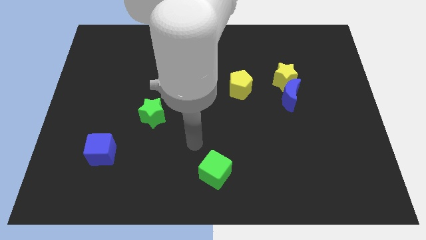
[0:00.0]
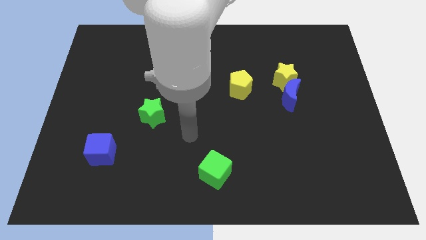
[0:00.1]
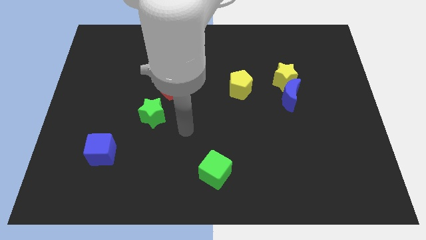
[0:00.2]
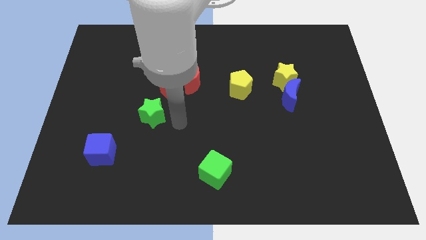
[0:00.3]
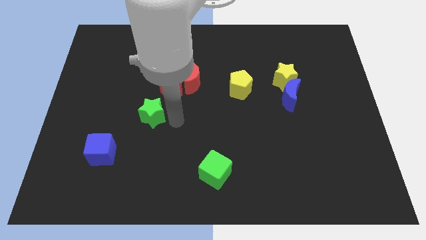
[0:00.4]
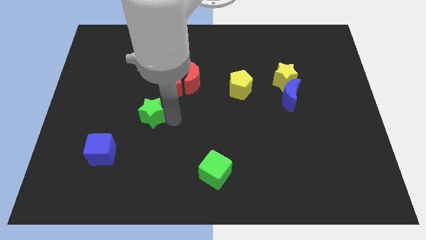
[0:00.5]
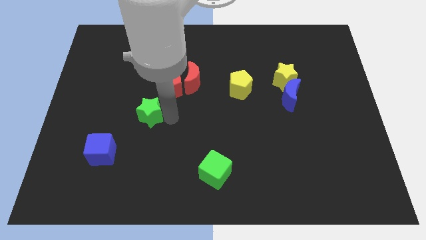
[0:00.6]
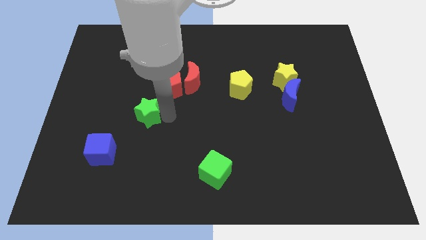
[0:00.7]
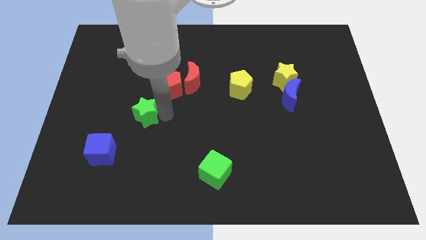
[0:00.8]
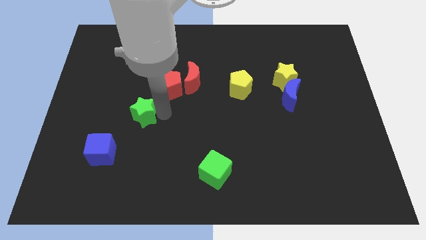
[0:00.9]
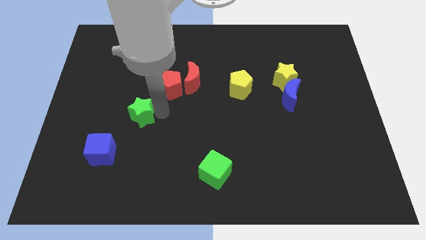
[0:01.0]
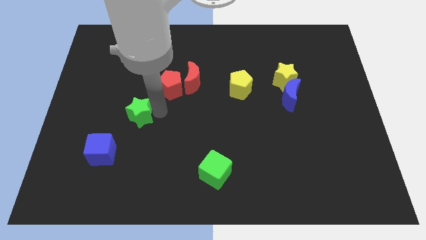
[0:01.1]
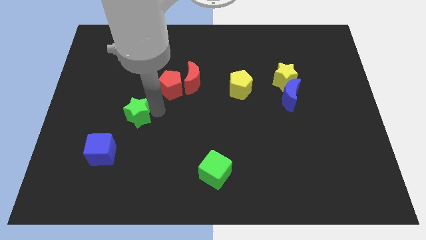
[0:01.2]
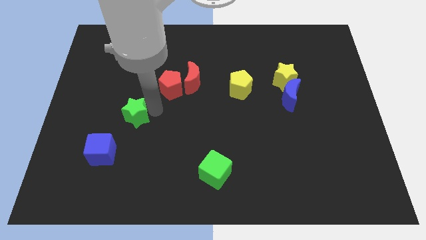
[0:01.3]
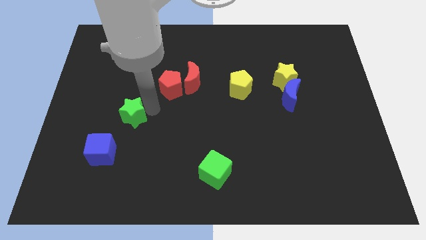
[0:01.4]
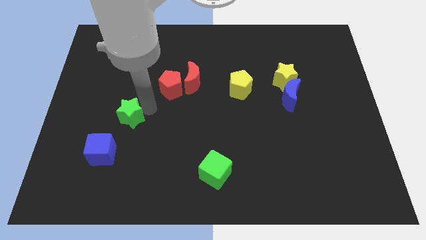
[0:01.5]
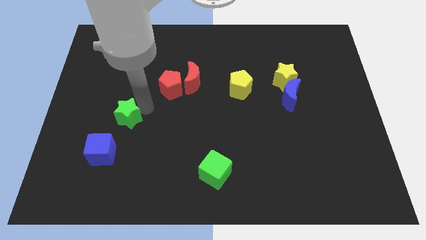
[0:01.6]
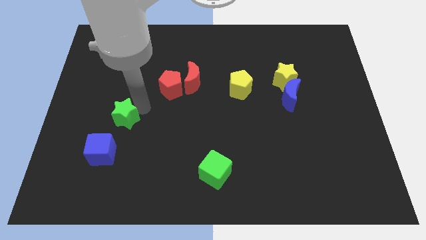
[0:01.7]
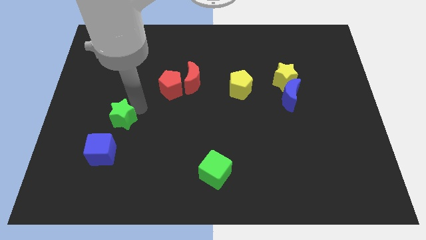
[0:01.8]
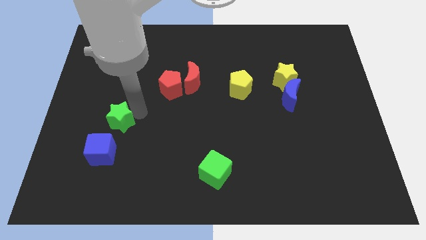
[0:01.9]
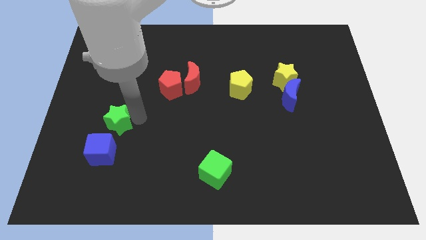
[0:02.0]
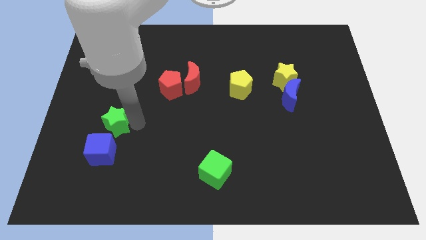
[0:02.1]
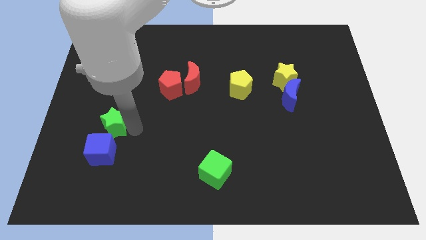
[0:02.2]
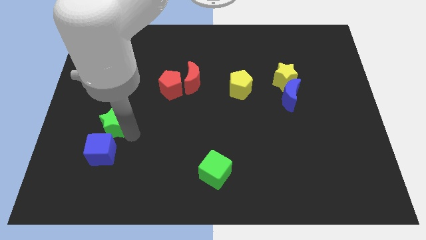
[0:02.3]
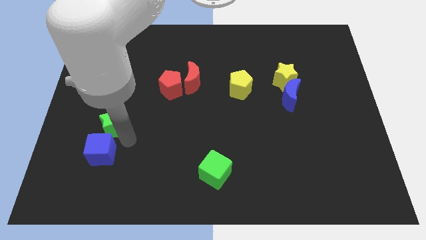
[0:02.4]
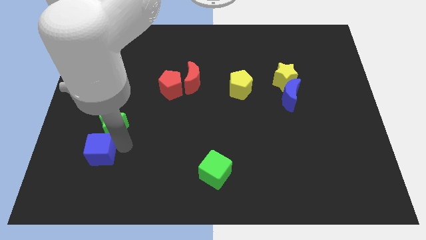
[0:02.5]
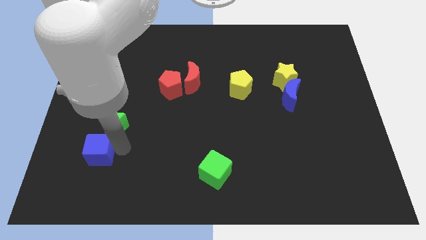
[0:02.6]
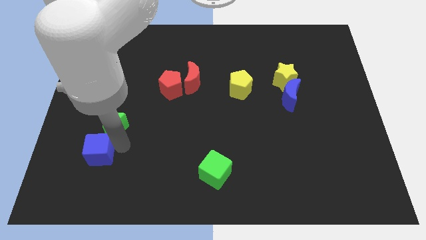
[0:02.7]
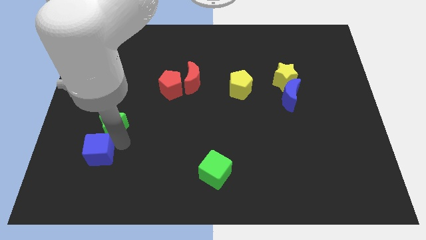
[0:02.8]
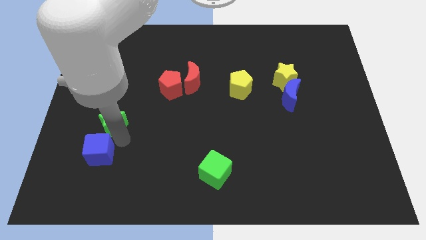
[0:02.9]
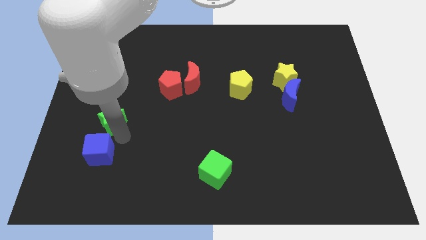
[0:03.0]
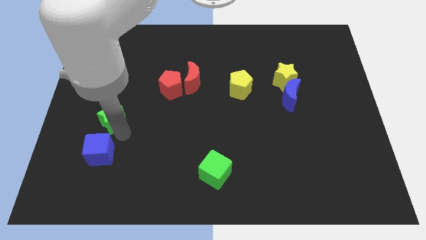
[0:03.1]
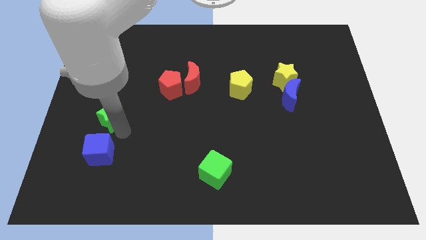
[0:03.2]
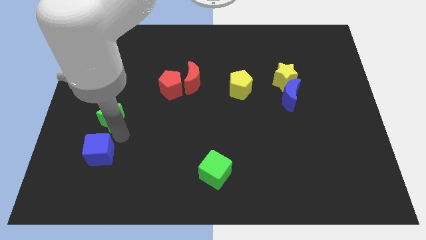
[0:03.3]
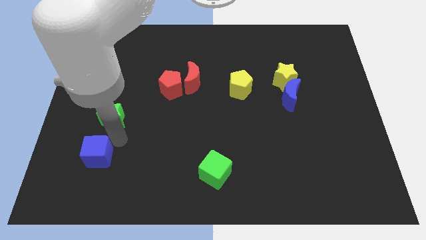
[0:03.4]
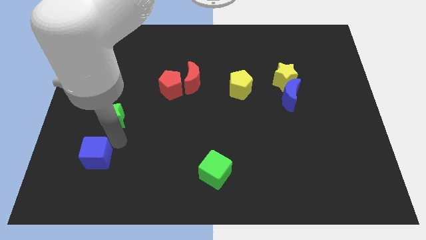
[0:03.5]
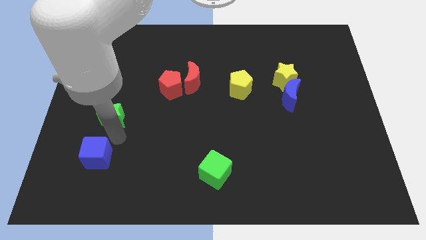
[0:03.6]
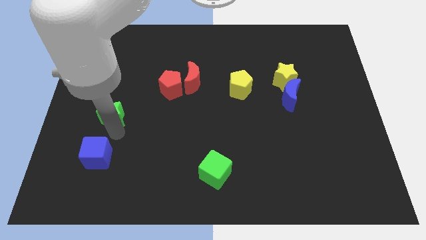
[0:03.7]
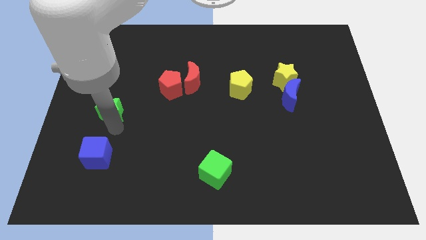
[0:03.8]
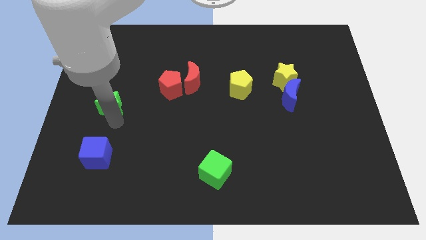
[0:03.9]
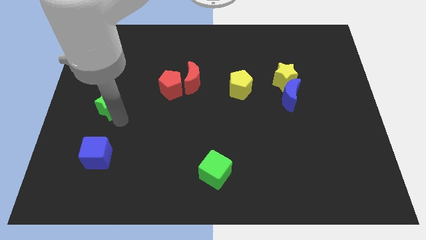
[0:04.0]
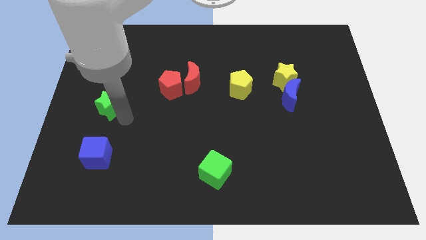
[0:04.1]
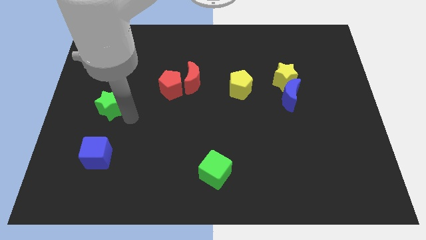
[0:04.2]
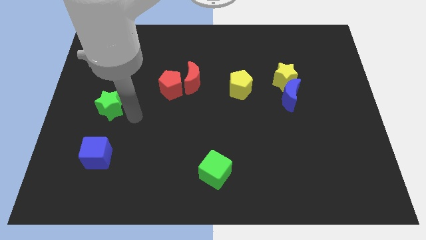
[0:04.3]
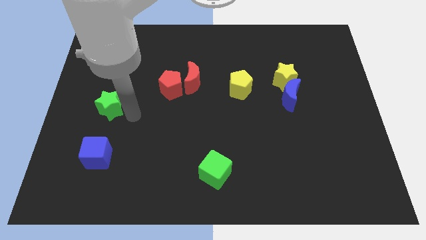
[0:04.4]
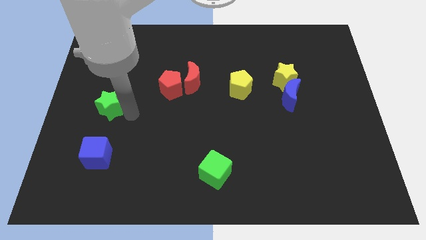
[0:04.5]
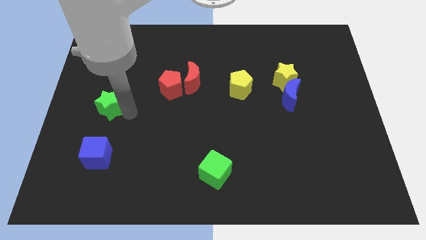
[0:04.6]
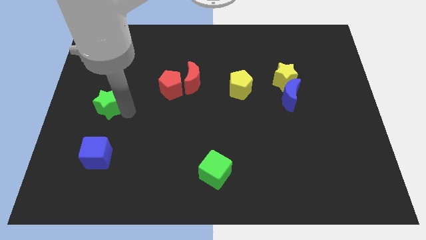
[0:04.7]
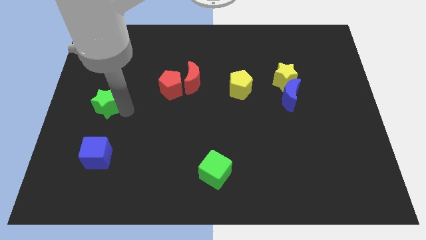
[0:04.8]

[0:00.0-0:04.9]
slide the green star to the left side

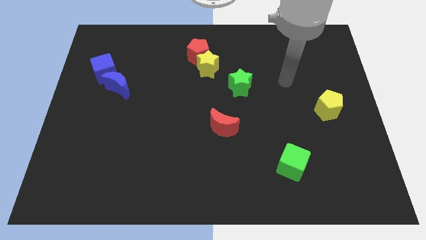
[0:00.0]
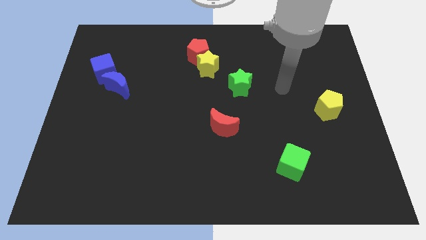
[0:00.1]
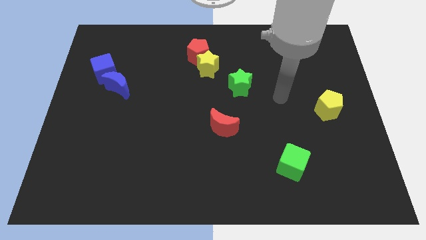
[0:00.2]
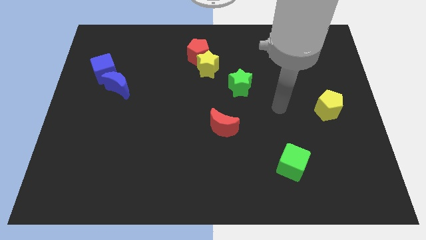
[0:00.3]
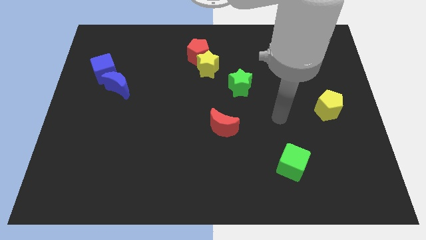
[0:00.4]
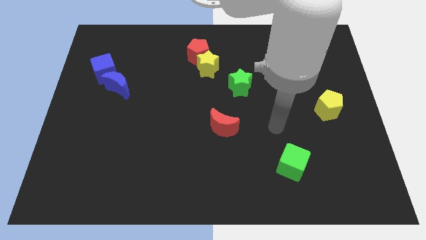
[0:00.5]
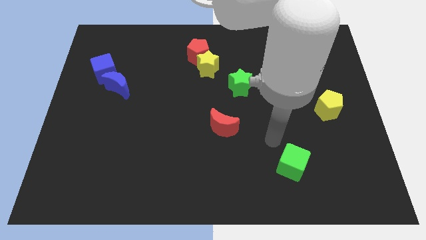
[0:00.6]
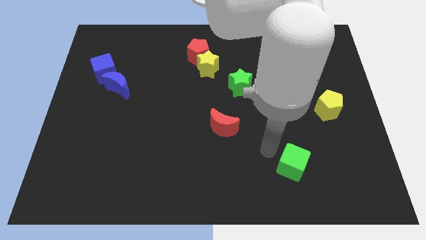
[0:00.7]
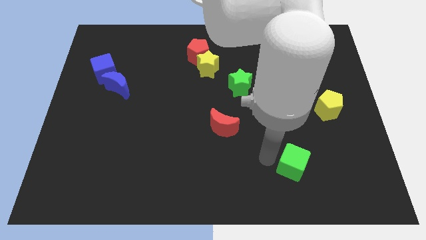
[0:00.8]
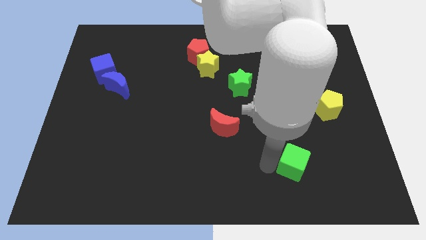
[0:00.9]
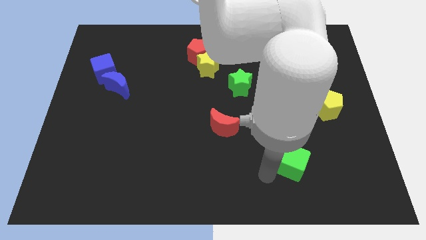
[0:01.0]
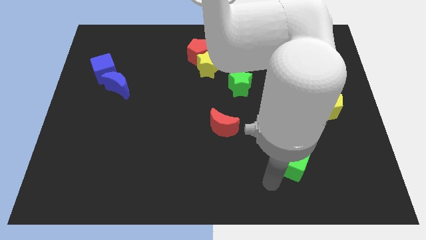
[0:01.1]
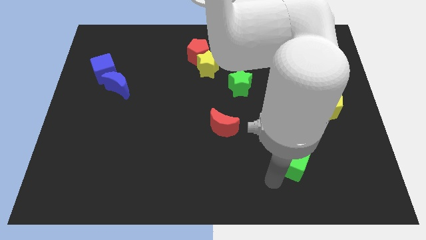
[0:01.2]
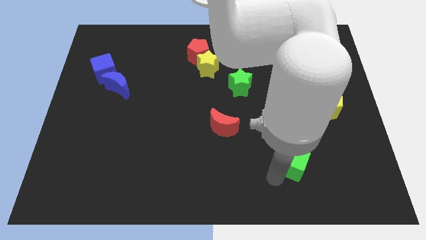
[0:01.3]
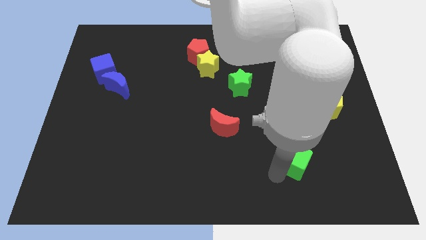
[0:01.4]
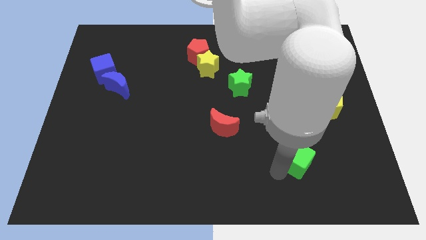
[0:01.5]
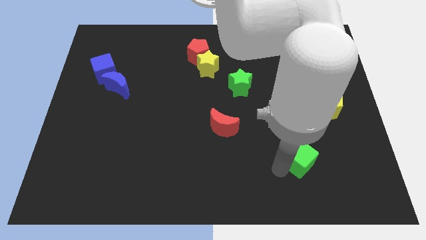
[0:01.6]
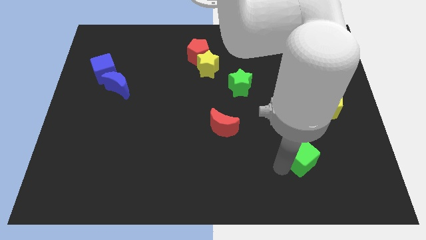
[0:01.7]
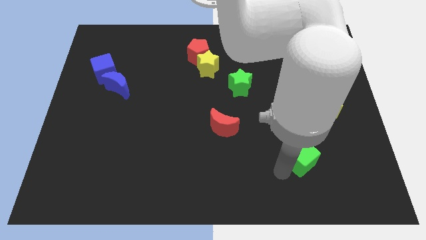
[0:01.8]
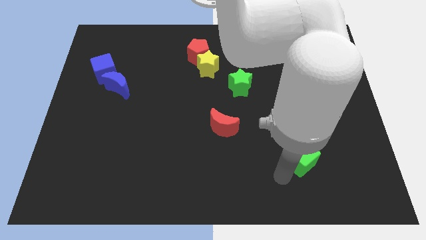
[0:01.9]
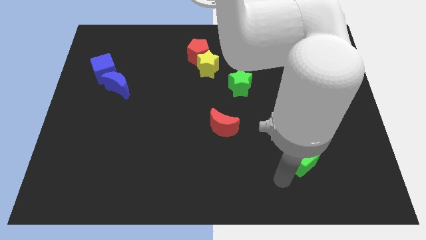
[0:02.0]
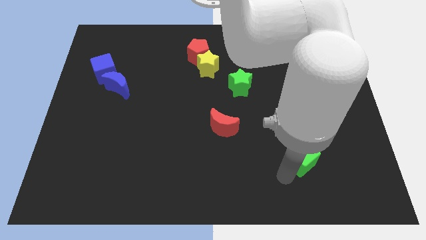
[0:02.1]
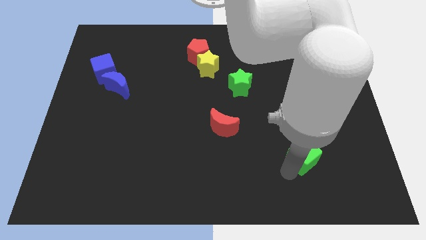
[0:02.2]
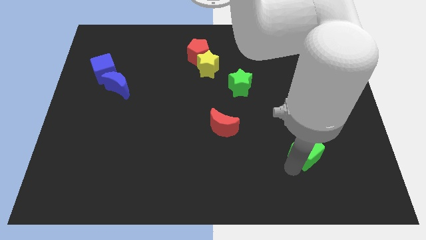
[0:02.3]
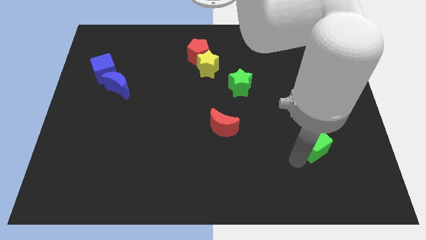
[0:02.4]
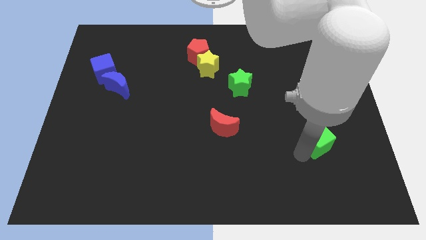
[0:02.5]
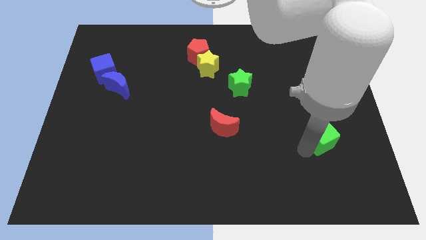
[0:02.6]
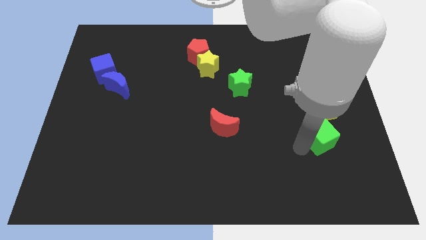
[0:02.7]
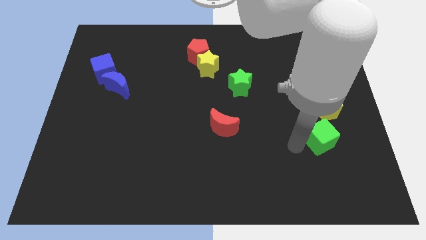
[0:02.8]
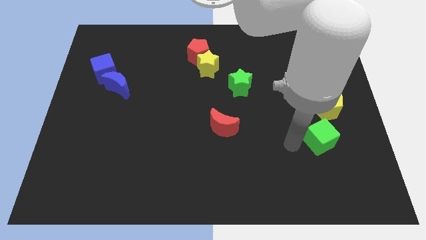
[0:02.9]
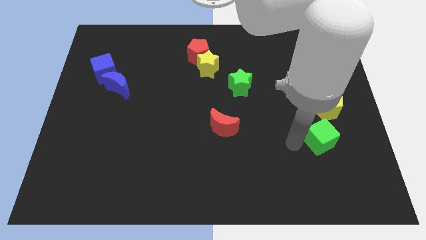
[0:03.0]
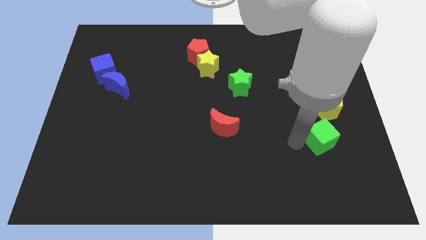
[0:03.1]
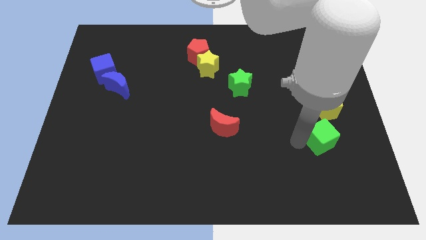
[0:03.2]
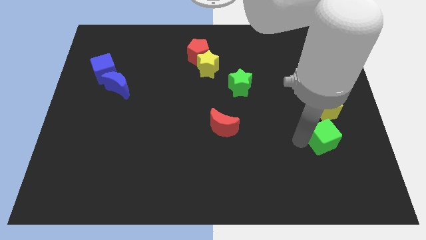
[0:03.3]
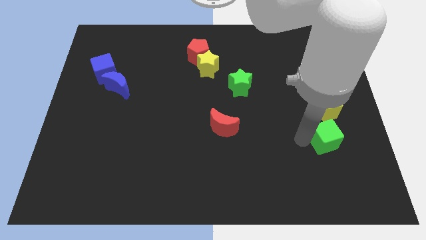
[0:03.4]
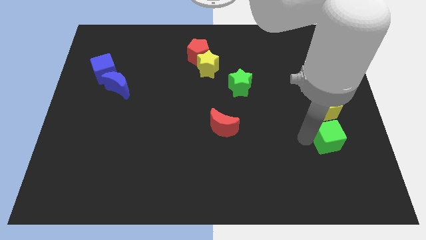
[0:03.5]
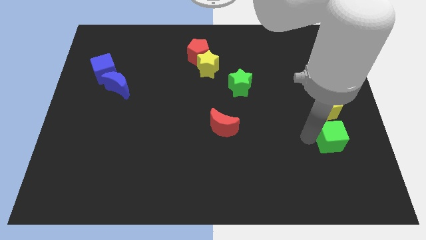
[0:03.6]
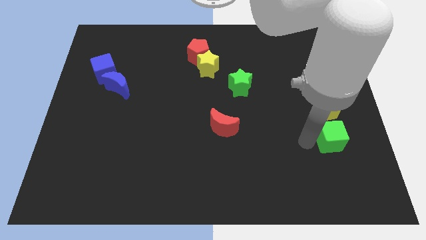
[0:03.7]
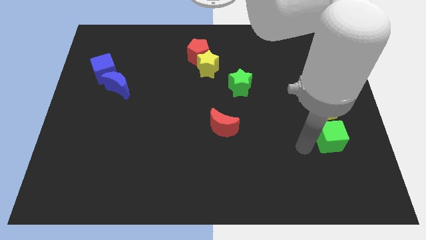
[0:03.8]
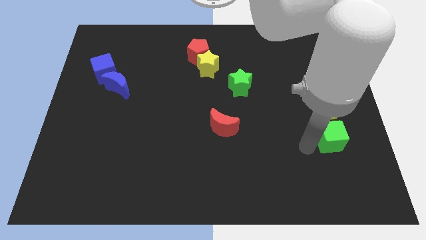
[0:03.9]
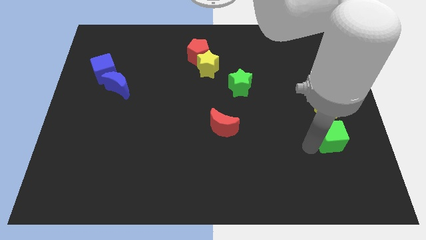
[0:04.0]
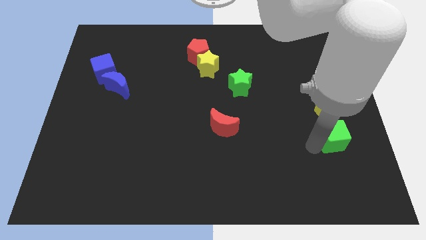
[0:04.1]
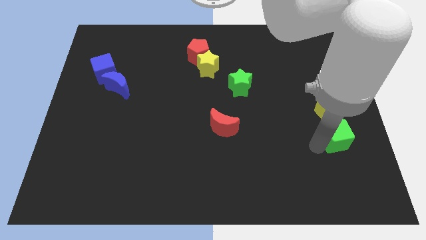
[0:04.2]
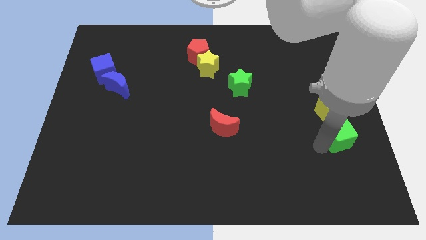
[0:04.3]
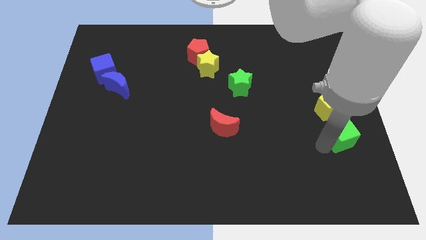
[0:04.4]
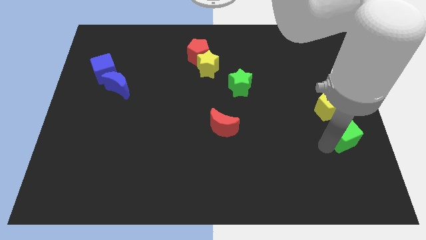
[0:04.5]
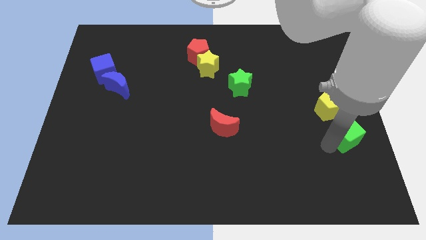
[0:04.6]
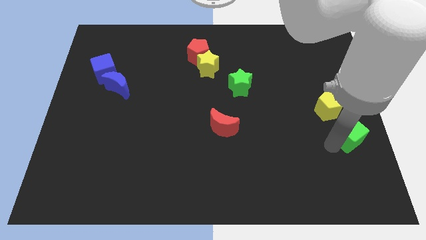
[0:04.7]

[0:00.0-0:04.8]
move the green cube to the right side
